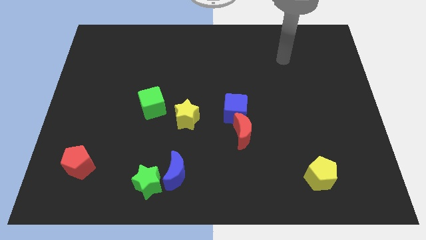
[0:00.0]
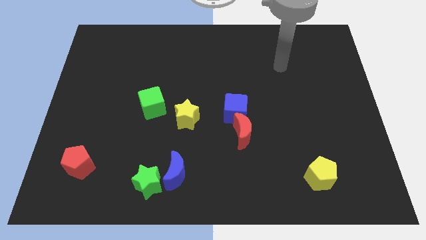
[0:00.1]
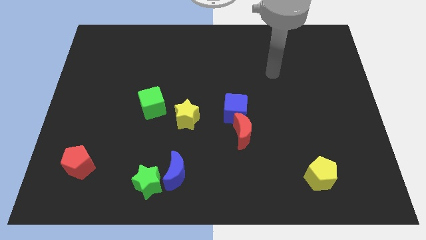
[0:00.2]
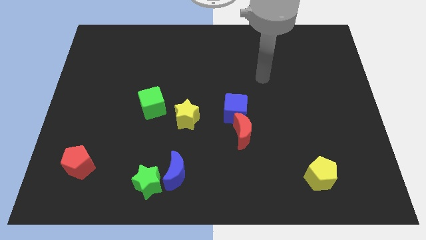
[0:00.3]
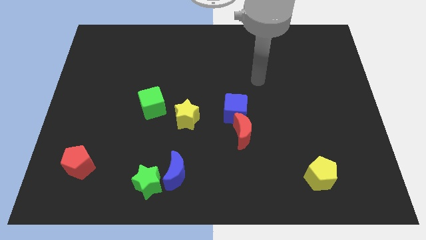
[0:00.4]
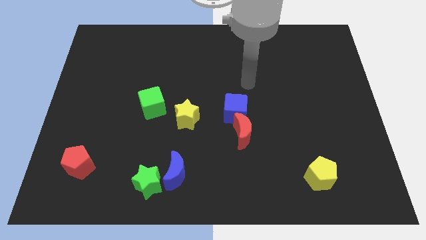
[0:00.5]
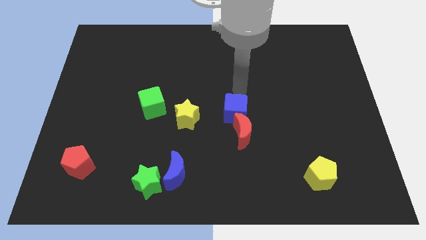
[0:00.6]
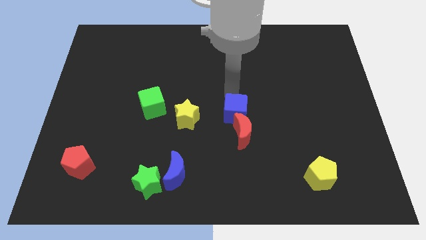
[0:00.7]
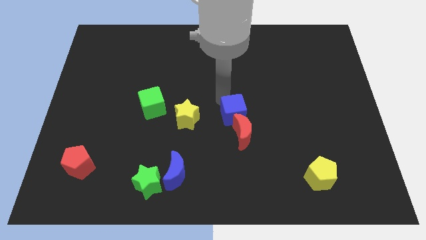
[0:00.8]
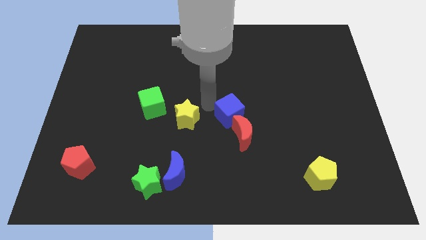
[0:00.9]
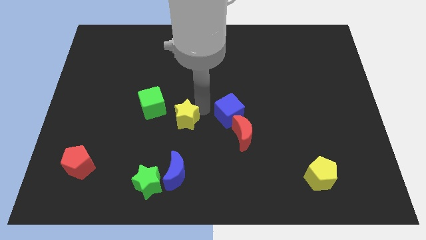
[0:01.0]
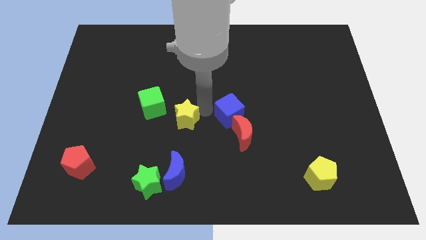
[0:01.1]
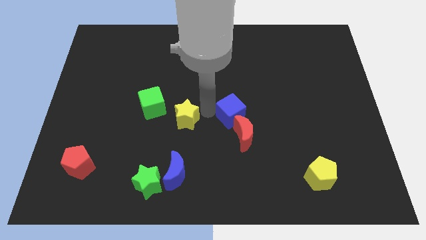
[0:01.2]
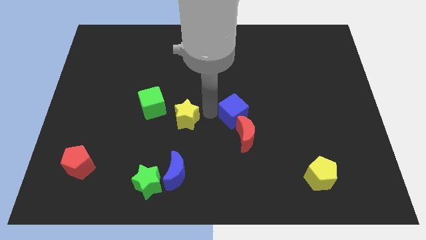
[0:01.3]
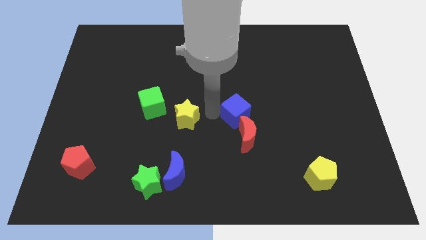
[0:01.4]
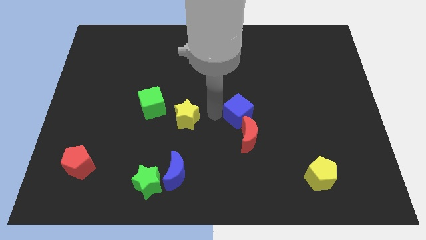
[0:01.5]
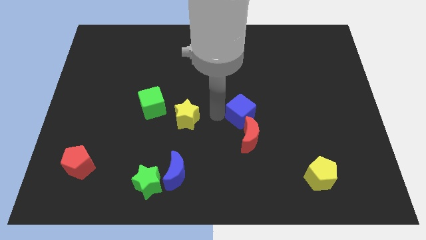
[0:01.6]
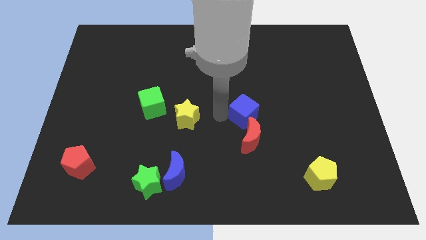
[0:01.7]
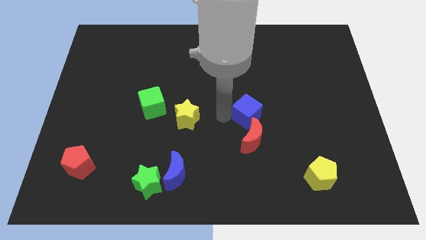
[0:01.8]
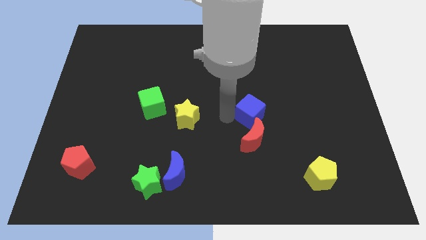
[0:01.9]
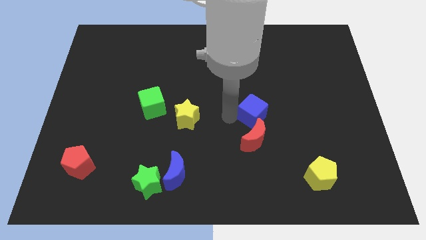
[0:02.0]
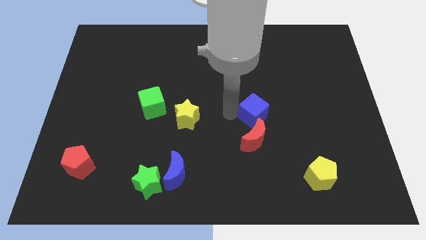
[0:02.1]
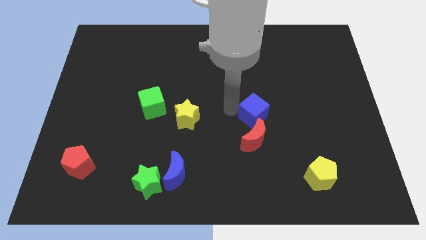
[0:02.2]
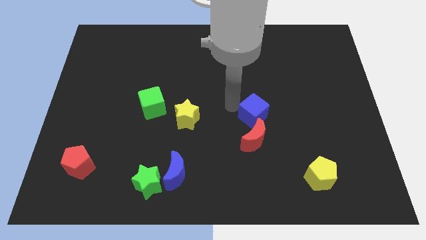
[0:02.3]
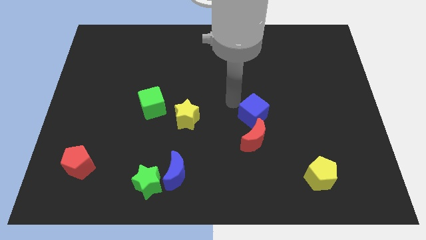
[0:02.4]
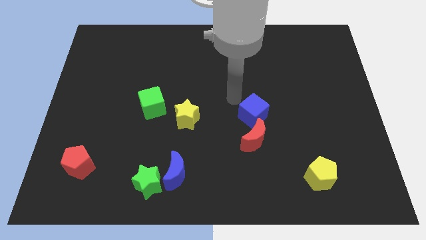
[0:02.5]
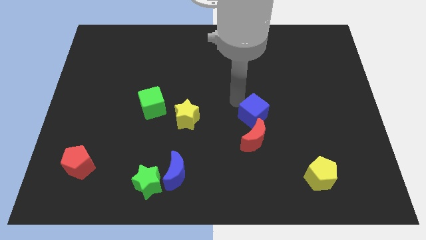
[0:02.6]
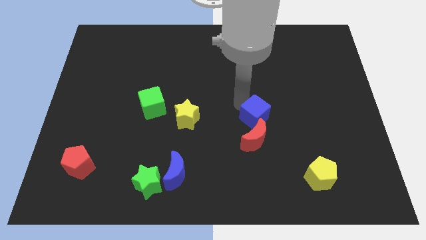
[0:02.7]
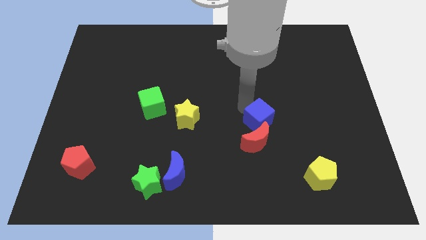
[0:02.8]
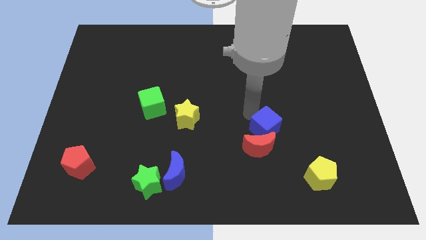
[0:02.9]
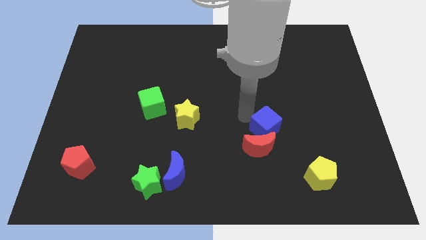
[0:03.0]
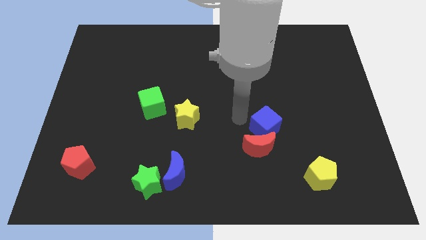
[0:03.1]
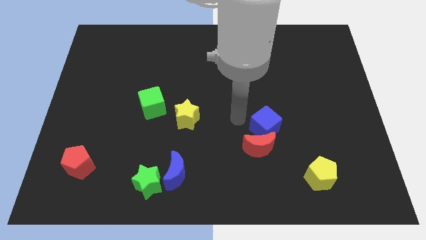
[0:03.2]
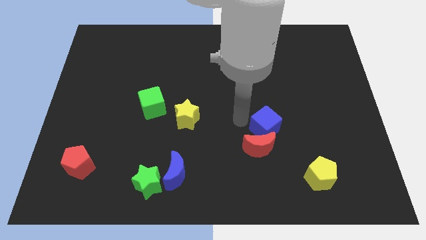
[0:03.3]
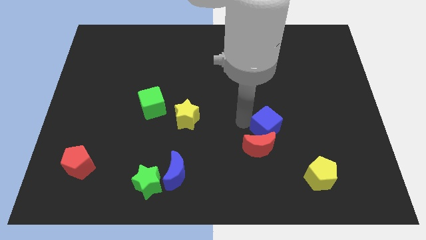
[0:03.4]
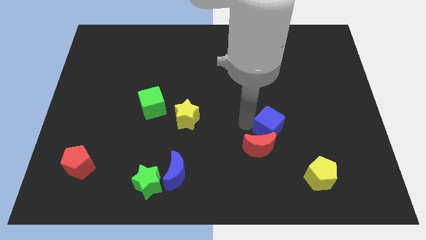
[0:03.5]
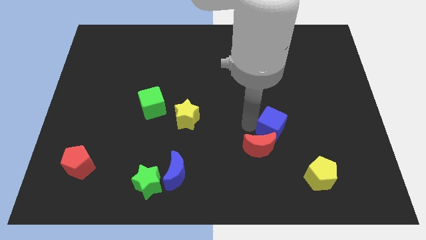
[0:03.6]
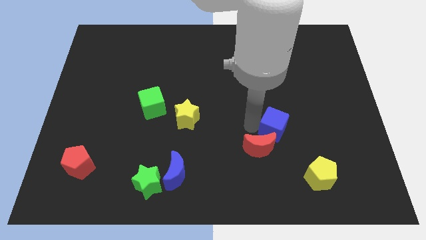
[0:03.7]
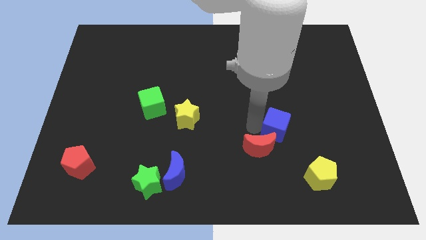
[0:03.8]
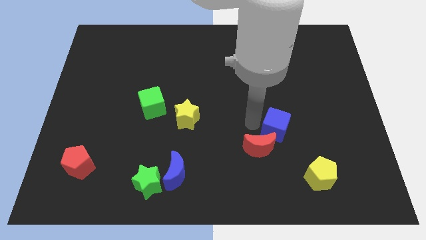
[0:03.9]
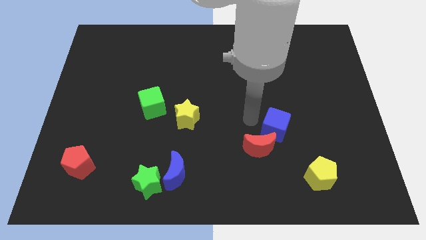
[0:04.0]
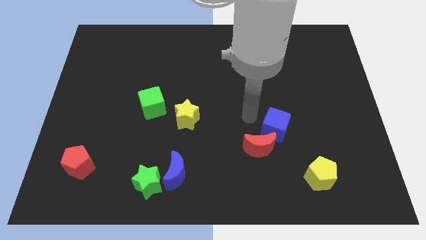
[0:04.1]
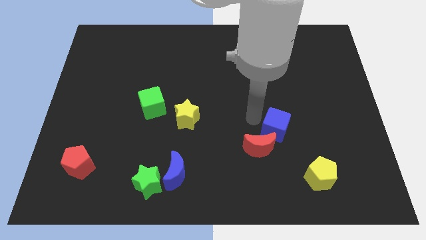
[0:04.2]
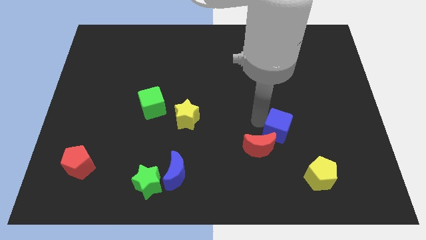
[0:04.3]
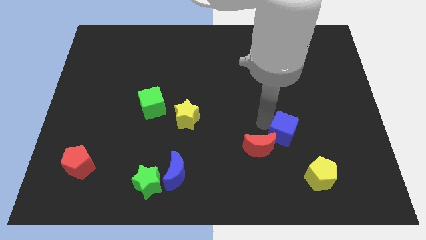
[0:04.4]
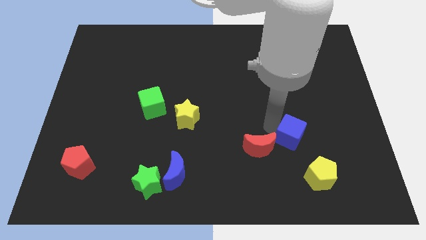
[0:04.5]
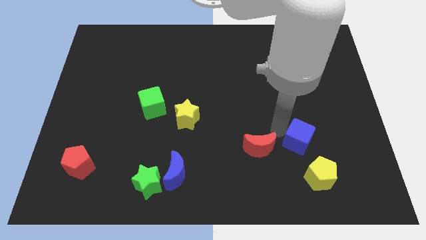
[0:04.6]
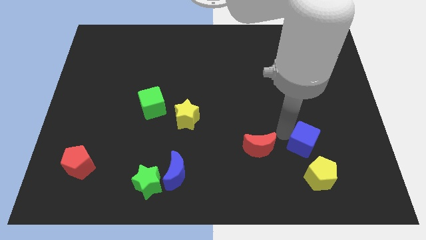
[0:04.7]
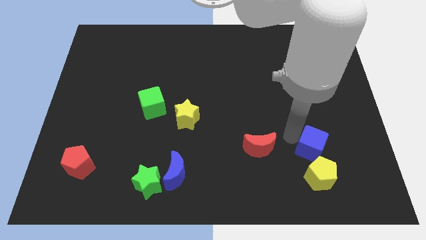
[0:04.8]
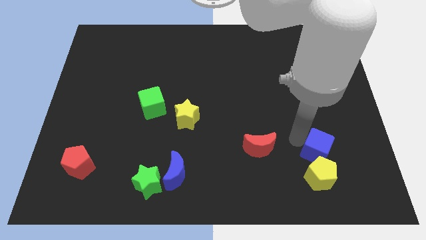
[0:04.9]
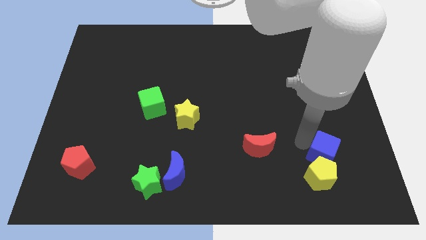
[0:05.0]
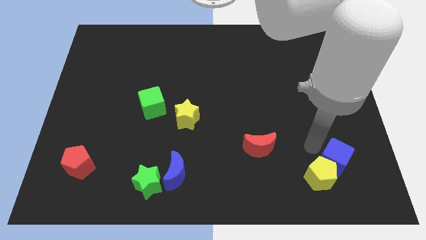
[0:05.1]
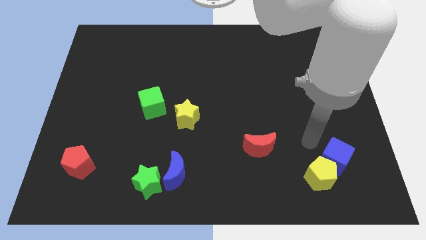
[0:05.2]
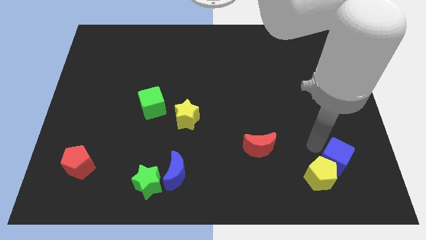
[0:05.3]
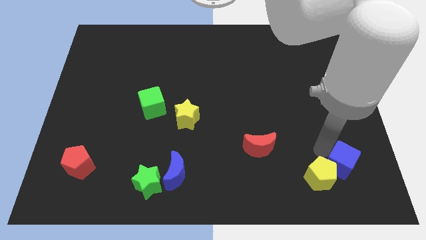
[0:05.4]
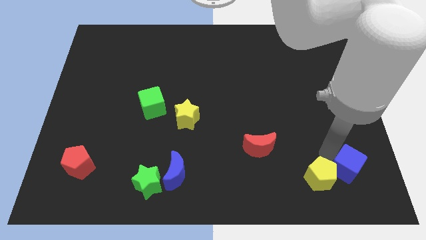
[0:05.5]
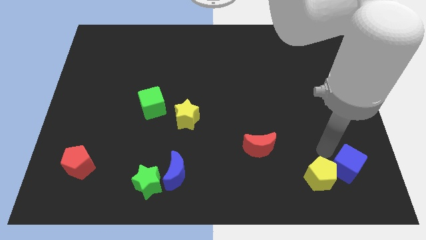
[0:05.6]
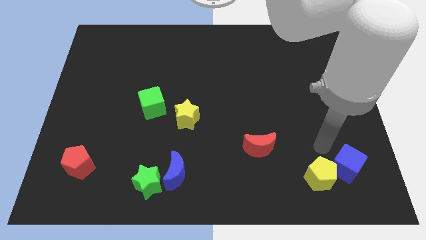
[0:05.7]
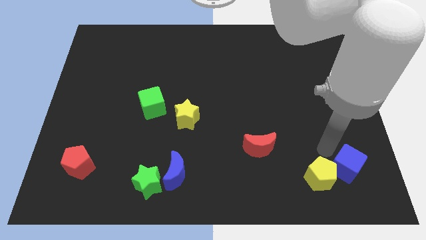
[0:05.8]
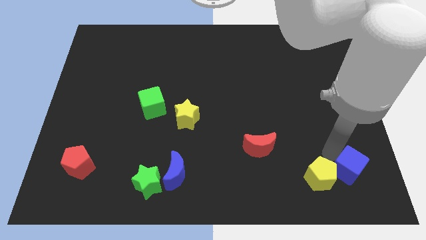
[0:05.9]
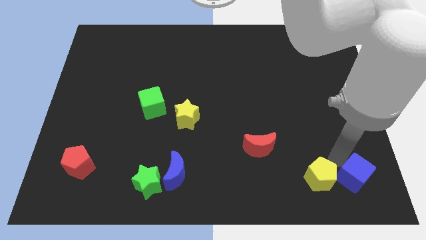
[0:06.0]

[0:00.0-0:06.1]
slide the blue cube to the lower right corner
